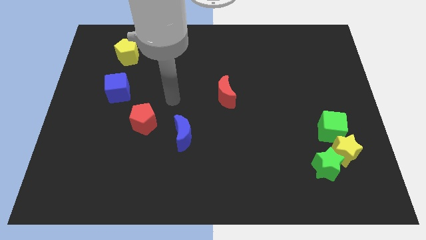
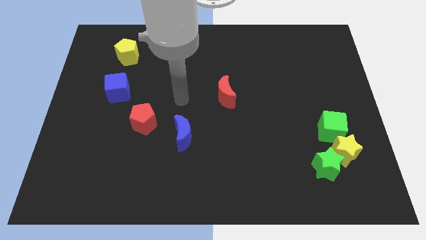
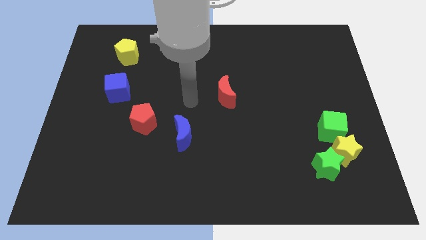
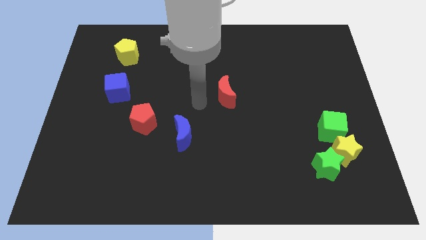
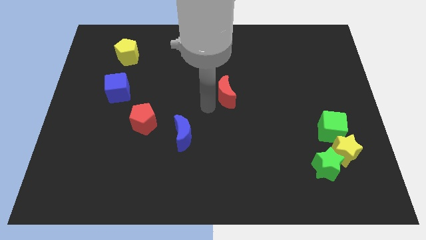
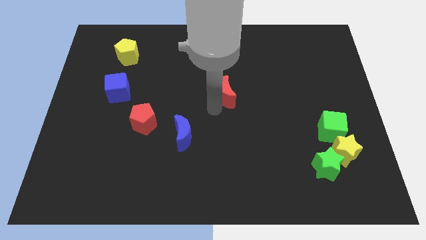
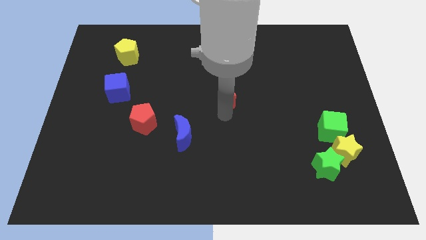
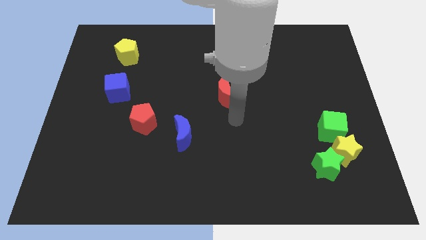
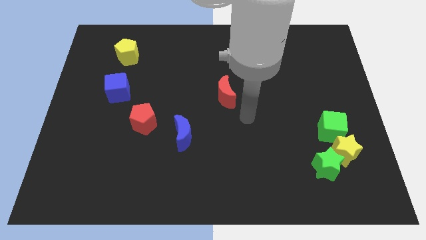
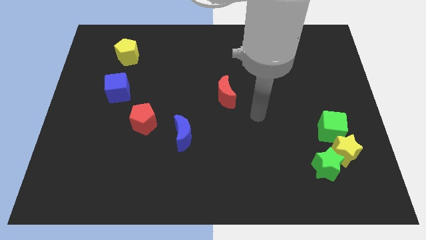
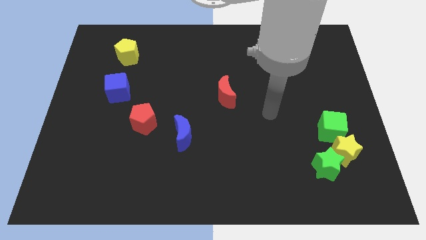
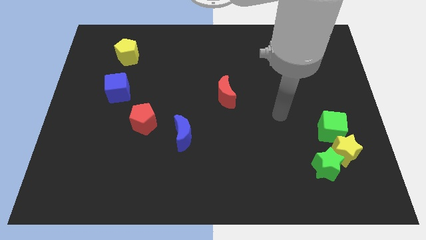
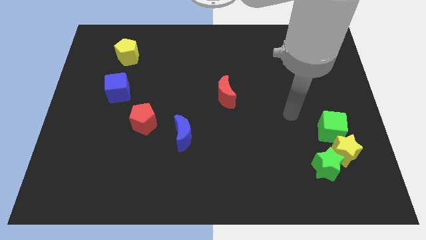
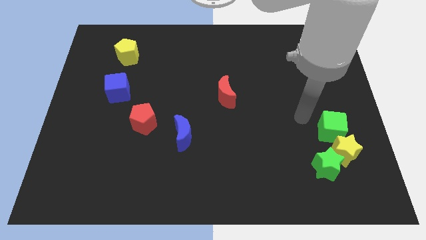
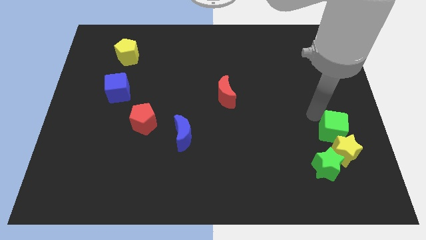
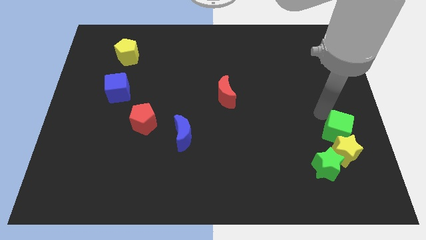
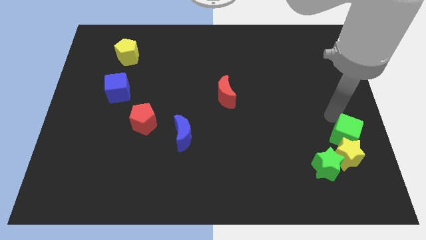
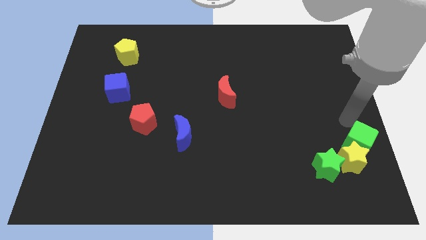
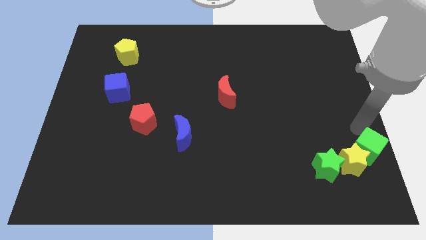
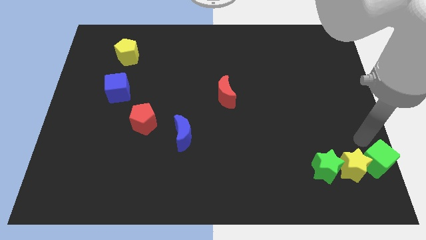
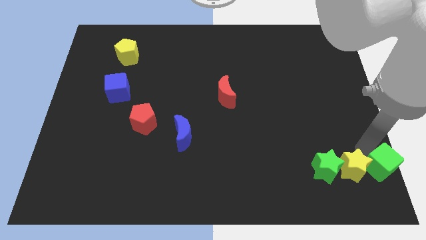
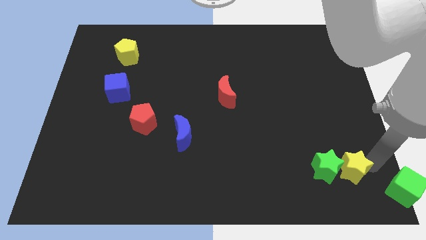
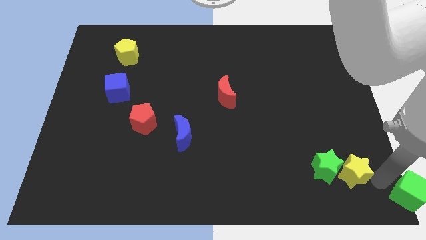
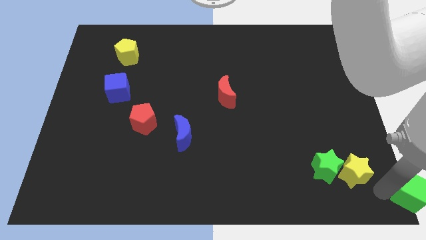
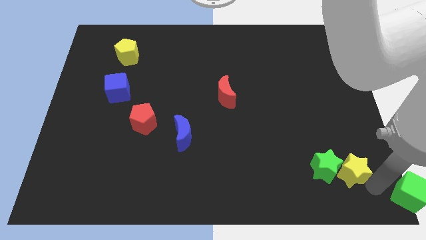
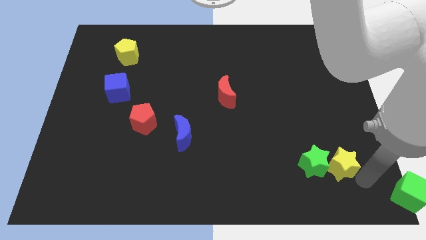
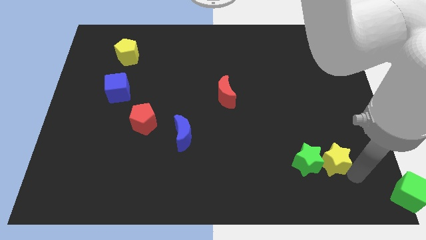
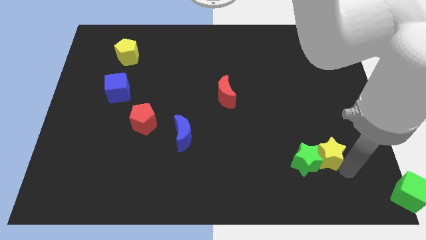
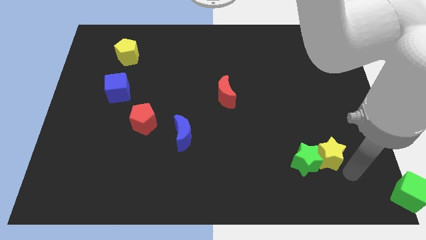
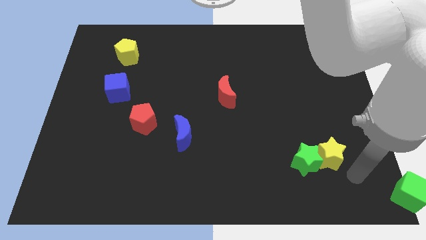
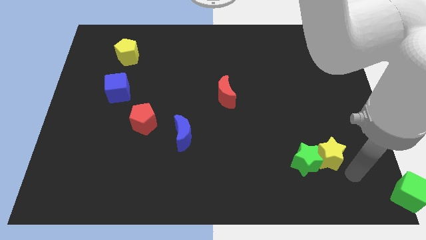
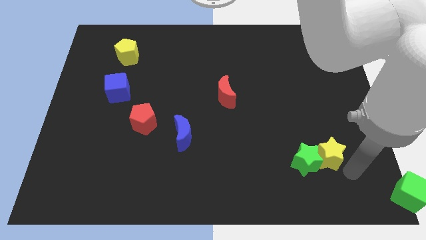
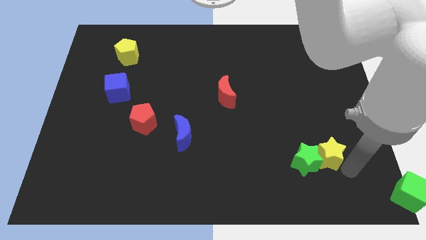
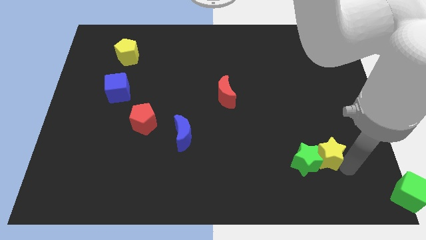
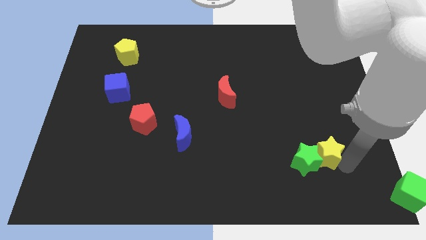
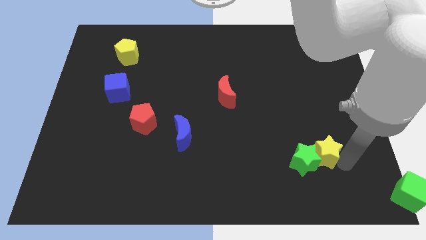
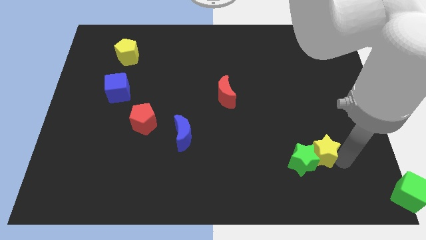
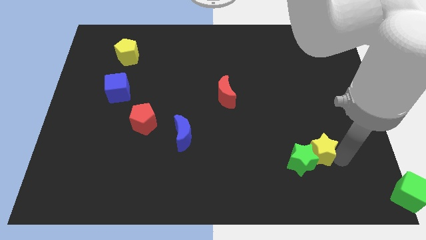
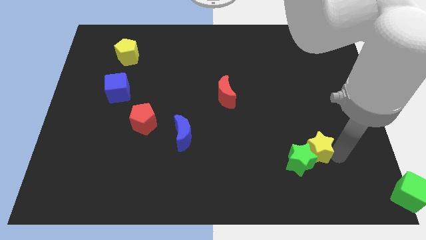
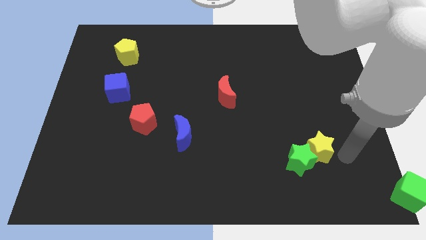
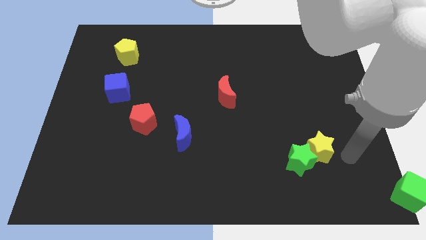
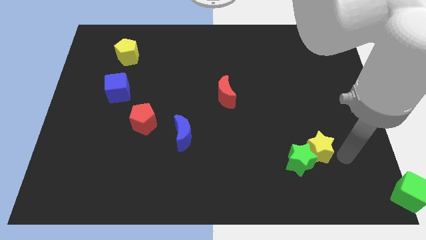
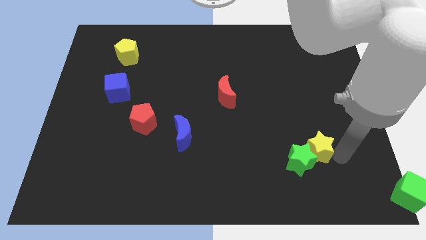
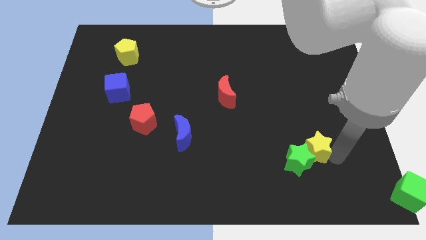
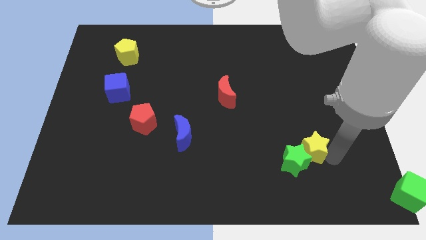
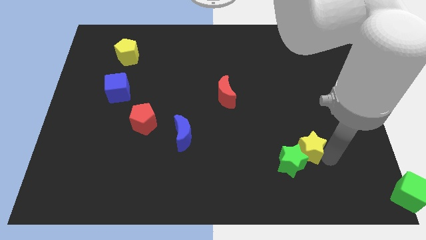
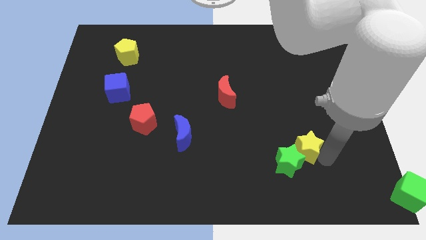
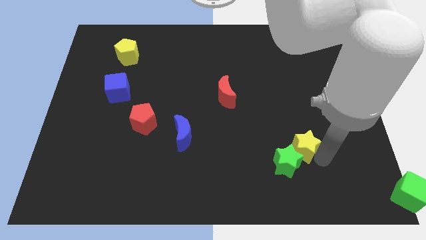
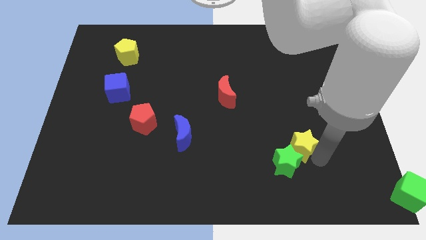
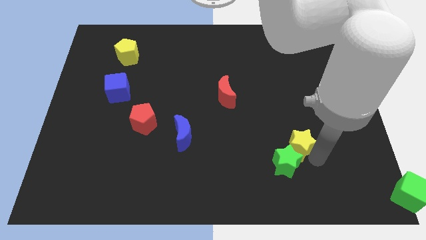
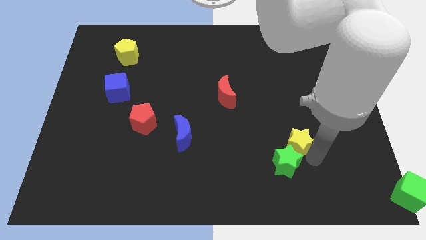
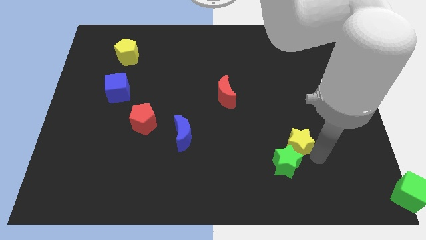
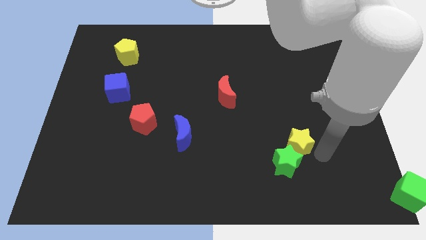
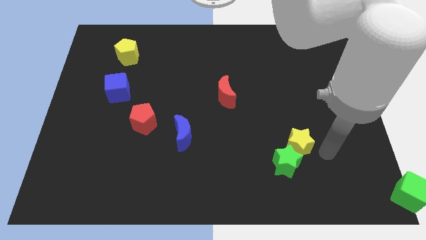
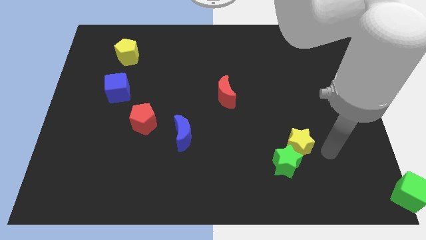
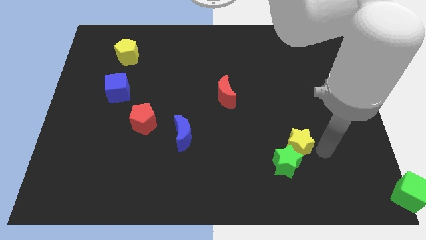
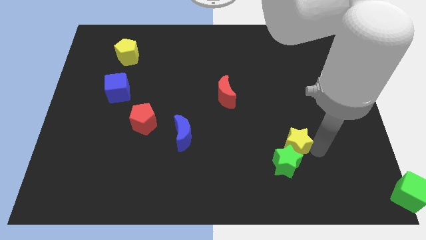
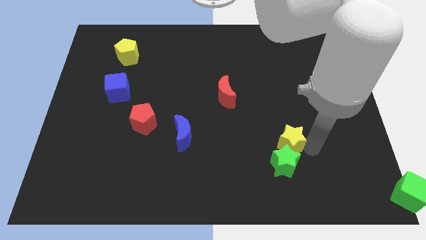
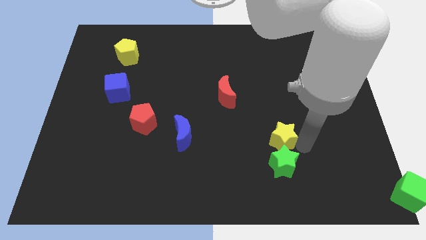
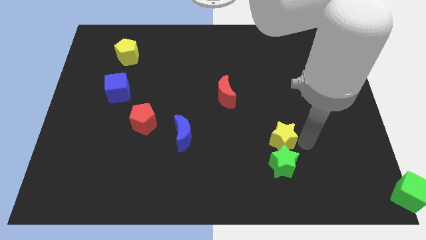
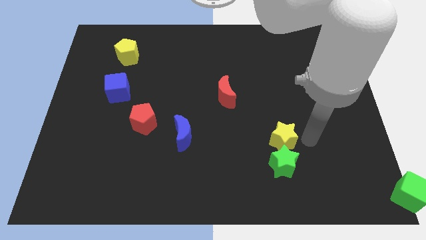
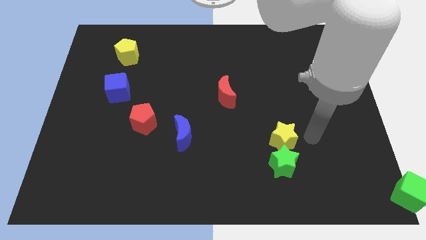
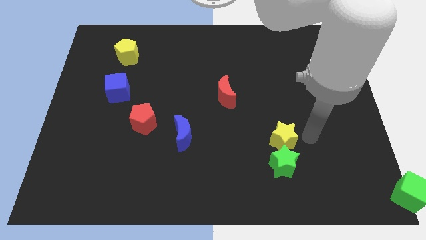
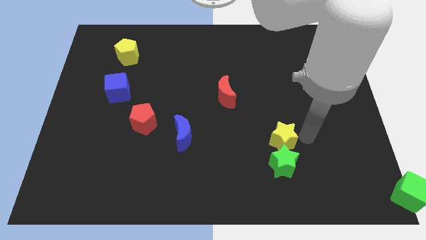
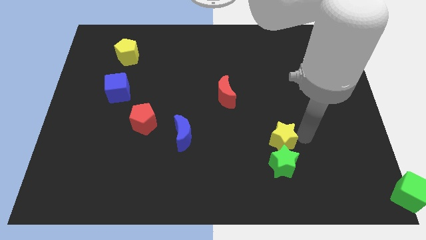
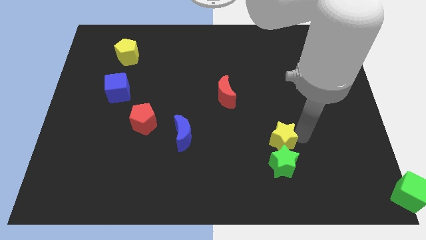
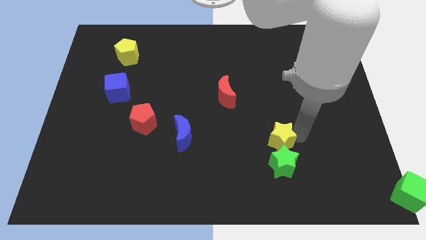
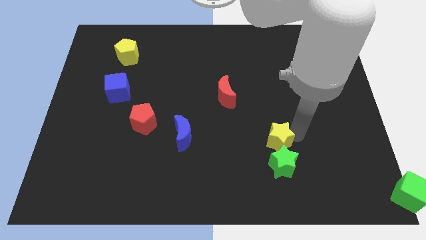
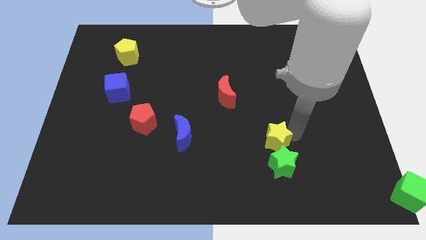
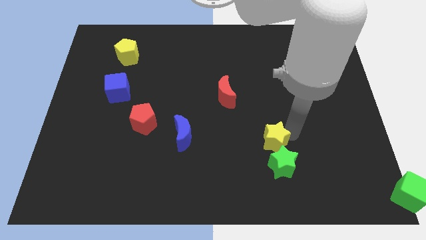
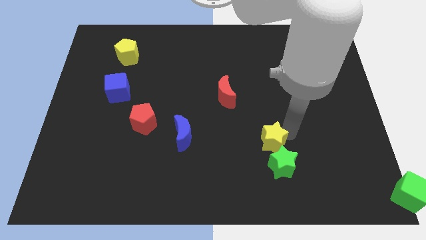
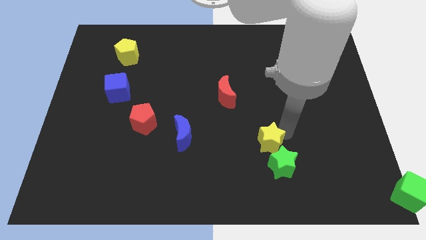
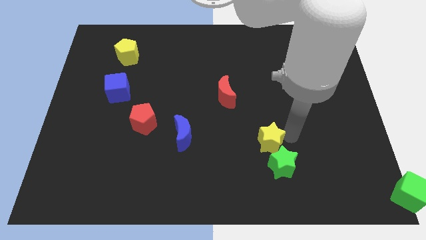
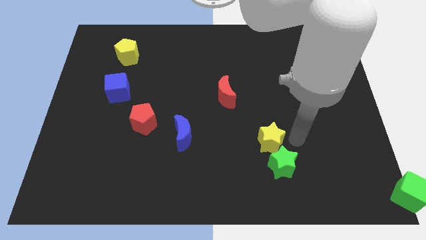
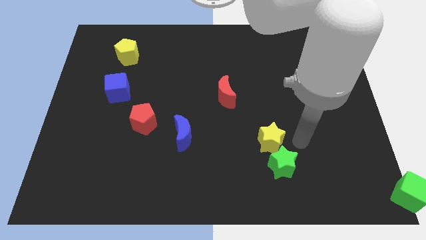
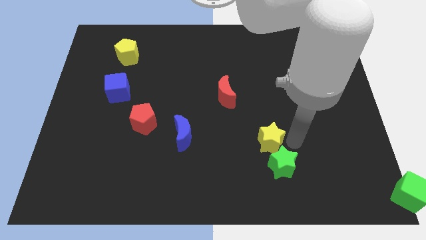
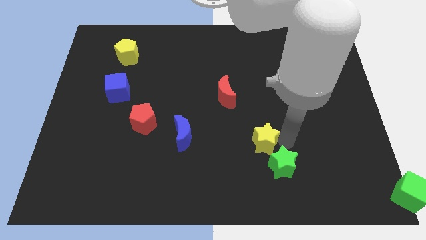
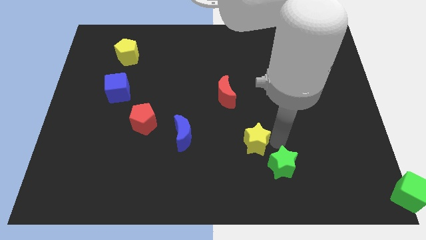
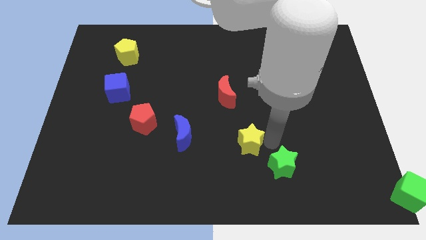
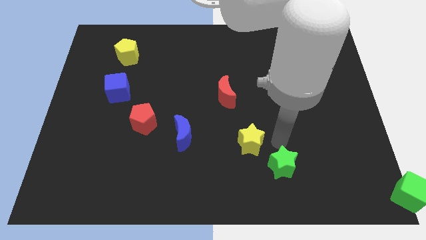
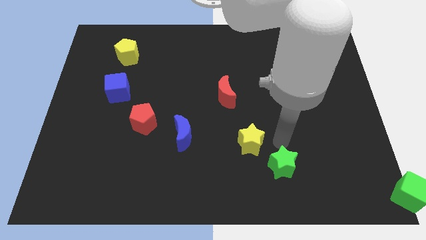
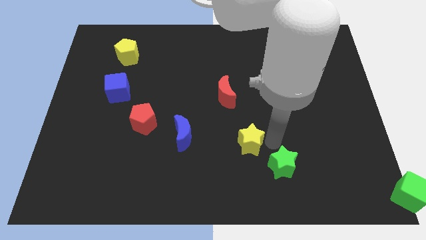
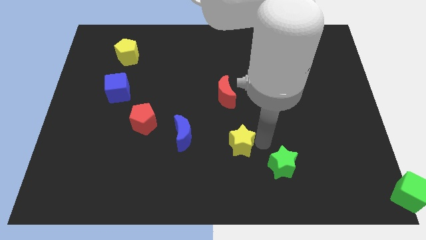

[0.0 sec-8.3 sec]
push the yellow star to the left
